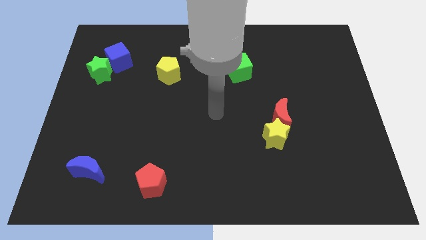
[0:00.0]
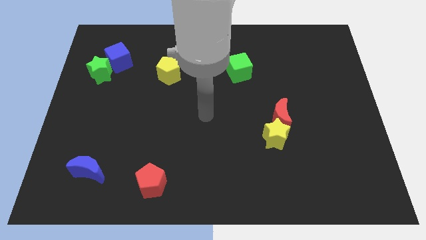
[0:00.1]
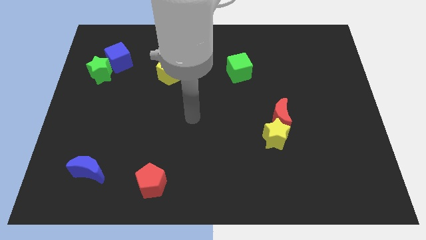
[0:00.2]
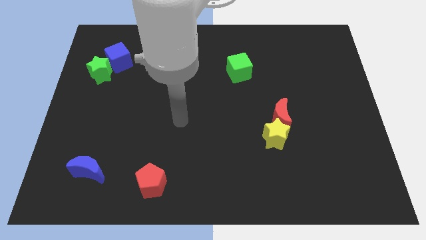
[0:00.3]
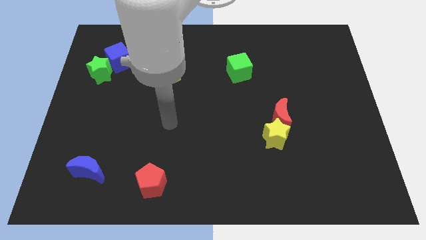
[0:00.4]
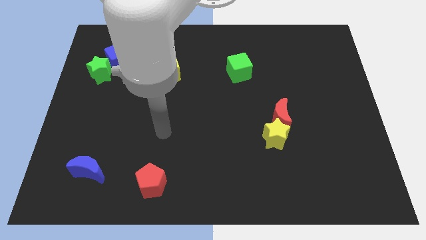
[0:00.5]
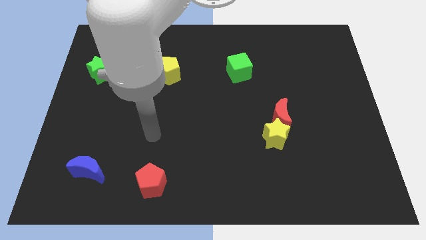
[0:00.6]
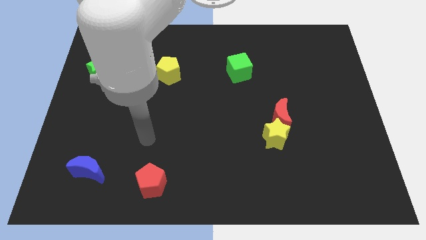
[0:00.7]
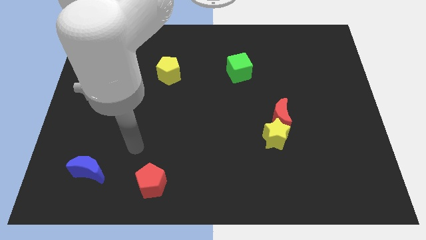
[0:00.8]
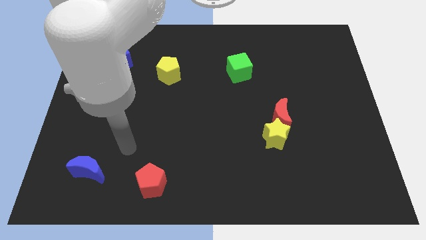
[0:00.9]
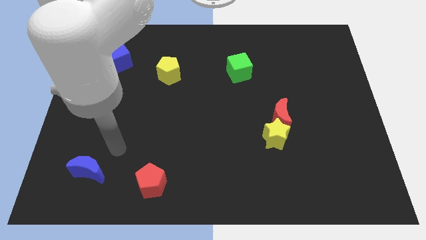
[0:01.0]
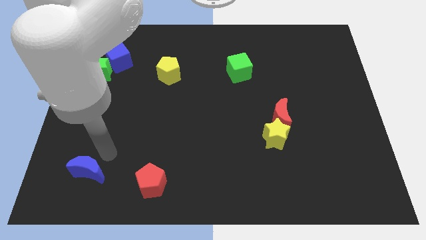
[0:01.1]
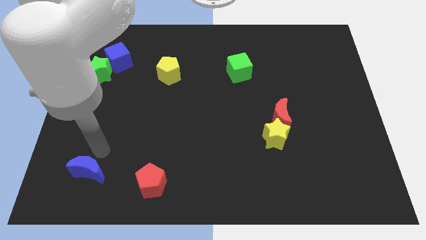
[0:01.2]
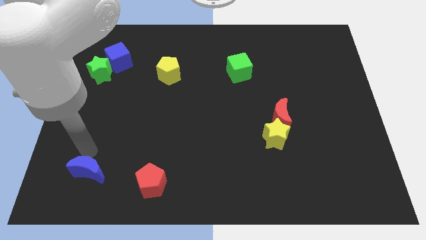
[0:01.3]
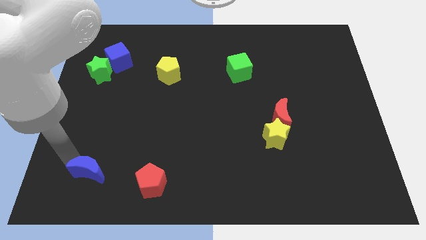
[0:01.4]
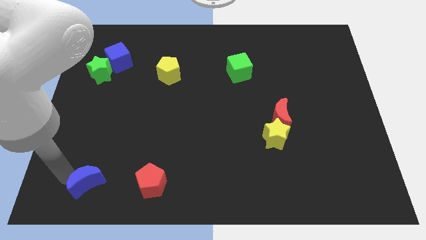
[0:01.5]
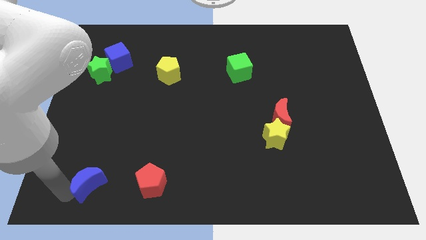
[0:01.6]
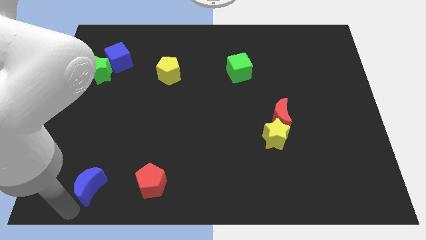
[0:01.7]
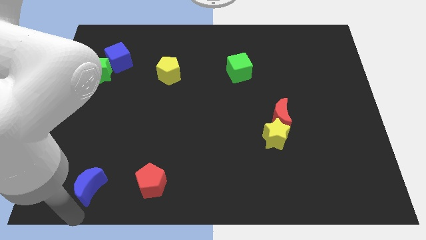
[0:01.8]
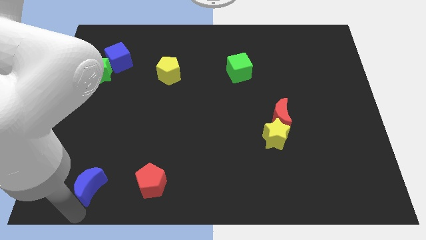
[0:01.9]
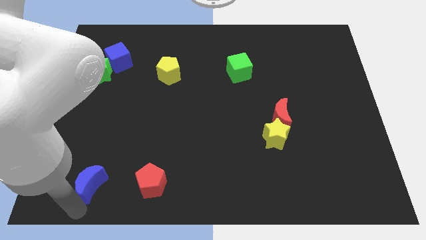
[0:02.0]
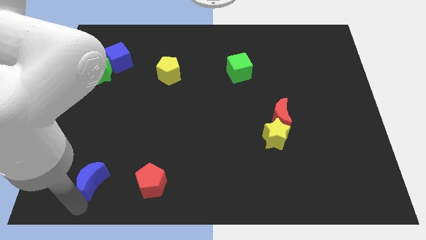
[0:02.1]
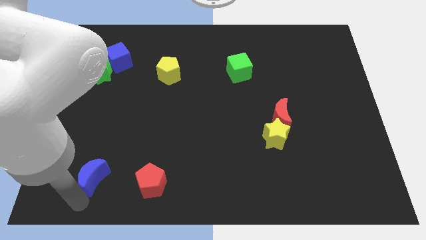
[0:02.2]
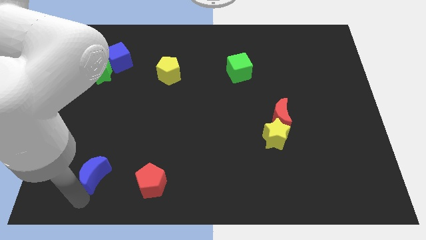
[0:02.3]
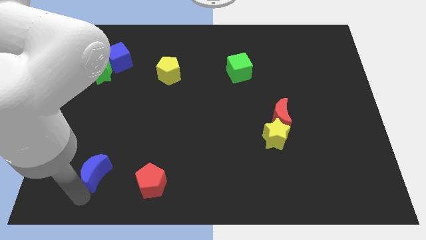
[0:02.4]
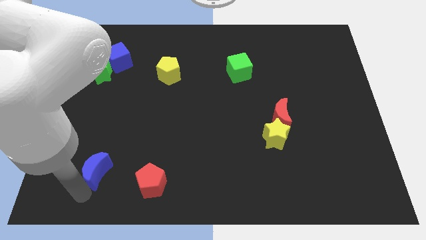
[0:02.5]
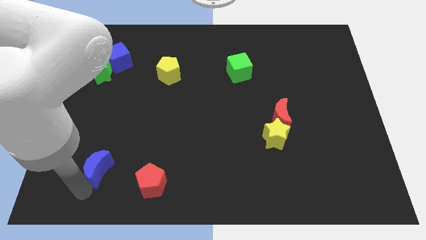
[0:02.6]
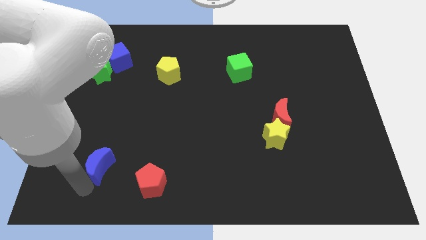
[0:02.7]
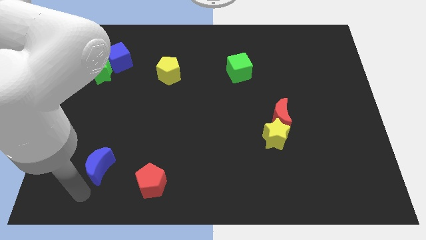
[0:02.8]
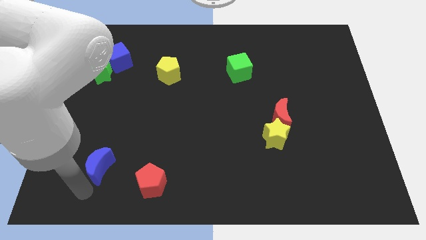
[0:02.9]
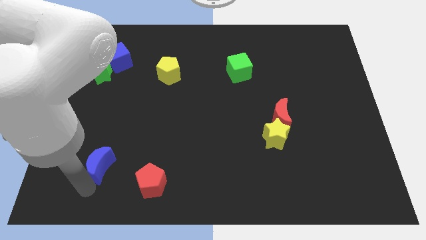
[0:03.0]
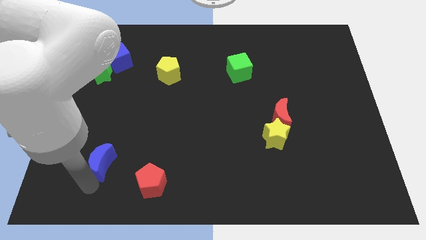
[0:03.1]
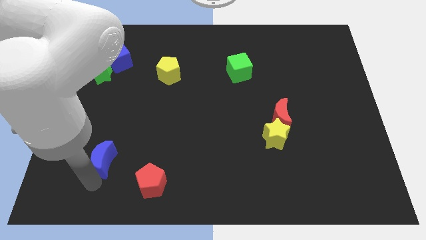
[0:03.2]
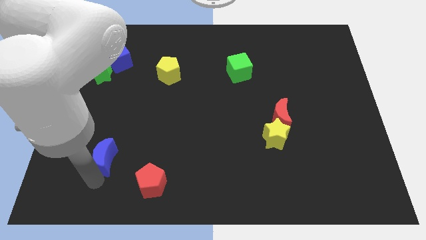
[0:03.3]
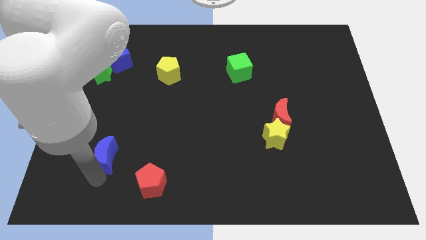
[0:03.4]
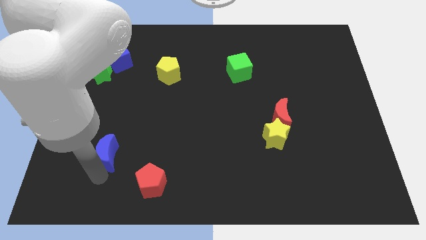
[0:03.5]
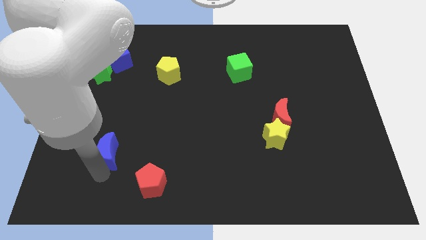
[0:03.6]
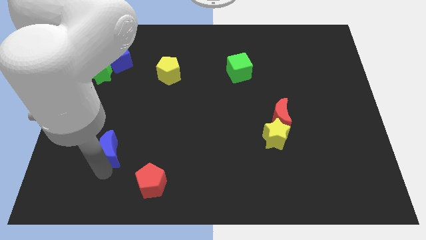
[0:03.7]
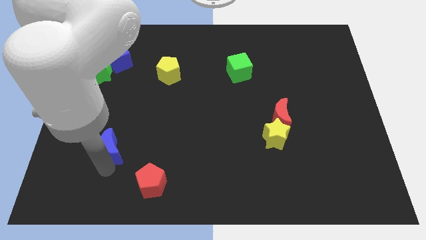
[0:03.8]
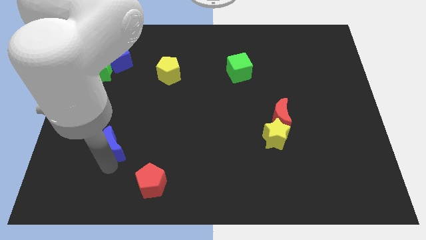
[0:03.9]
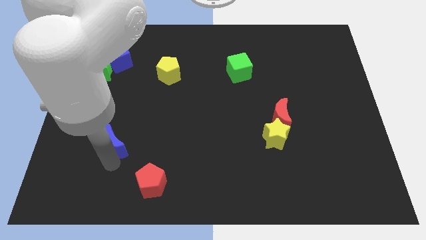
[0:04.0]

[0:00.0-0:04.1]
push the blue moon upwards and then to the right slightly

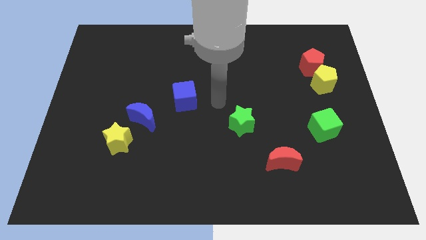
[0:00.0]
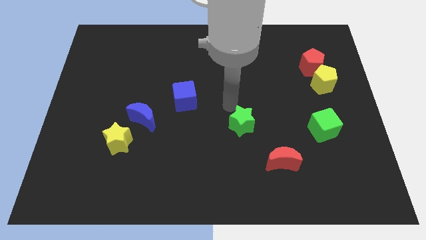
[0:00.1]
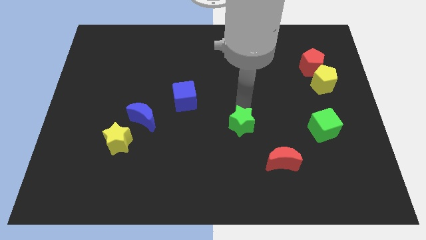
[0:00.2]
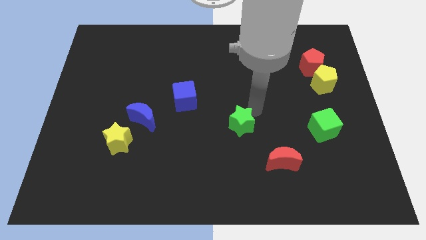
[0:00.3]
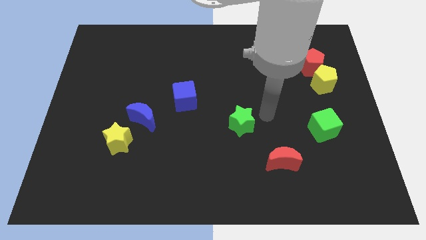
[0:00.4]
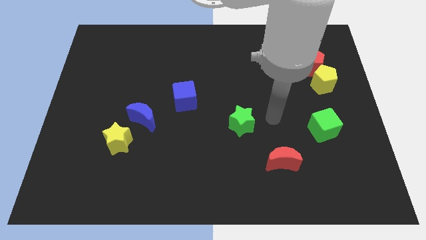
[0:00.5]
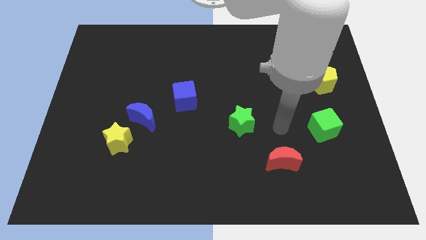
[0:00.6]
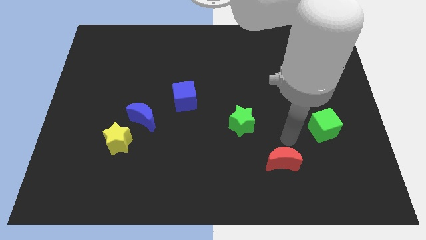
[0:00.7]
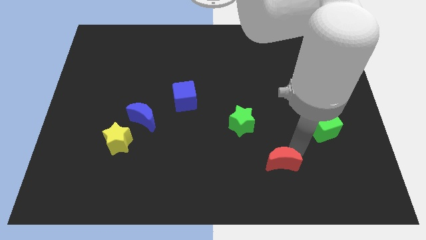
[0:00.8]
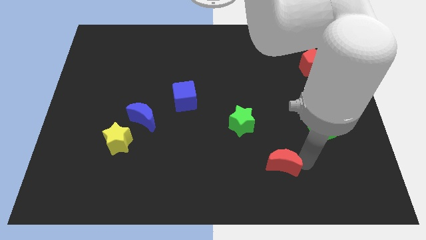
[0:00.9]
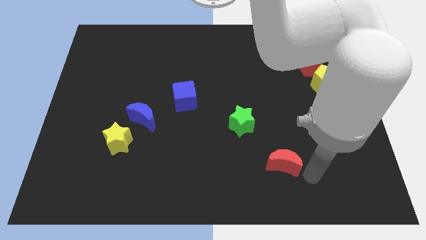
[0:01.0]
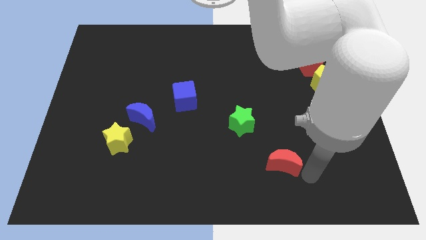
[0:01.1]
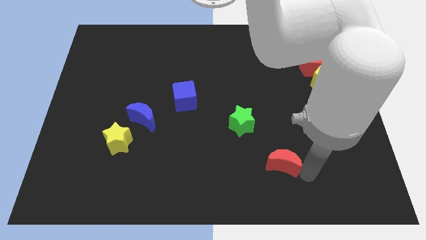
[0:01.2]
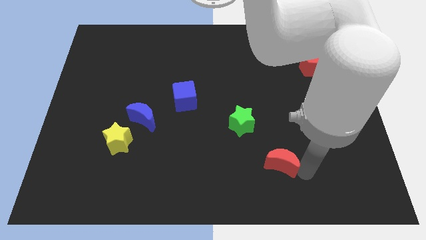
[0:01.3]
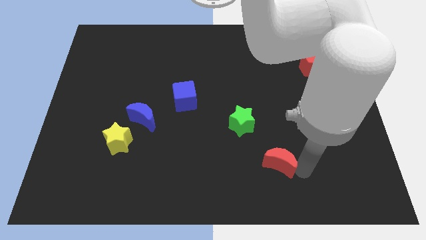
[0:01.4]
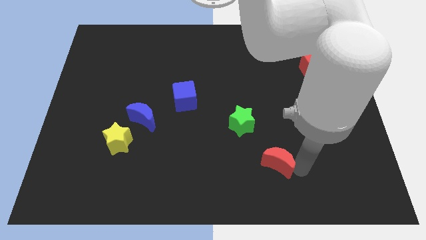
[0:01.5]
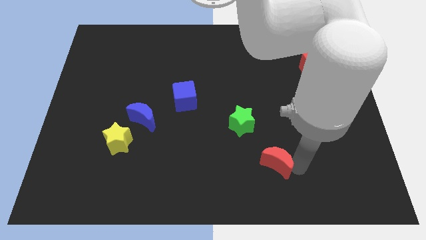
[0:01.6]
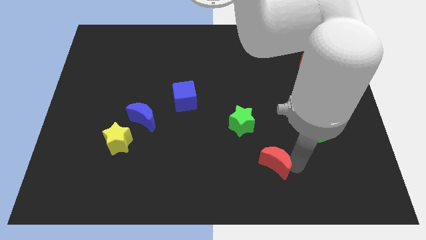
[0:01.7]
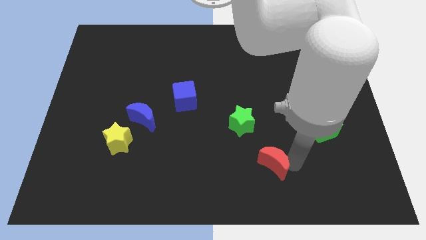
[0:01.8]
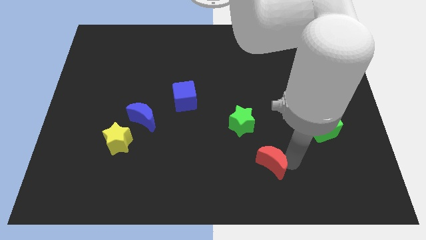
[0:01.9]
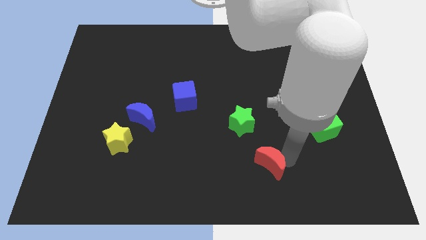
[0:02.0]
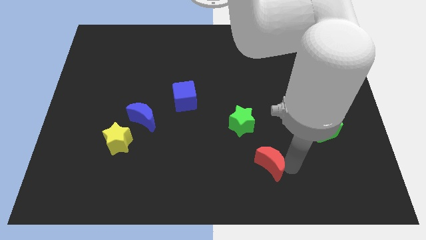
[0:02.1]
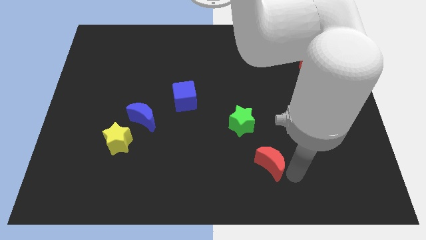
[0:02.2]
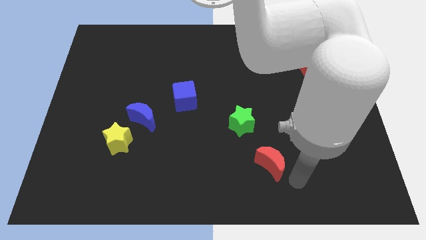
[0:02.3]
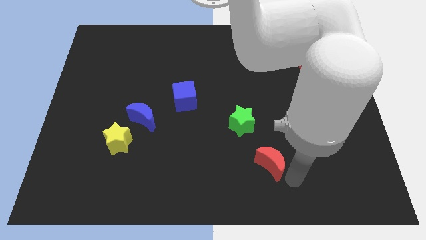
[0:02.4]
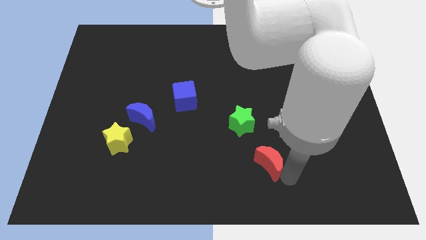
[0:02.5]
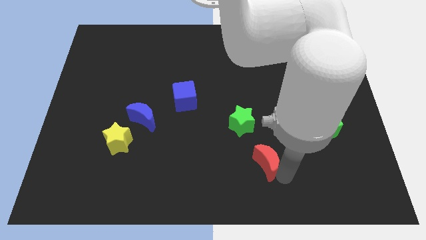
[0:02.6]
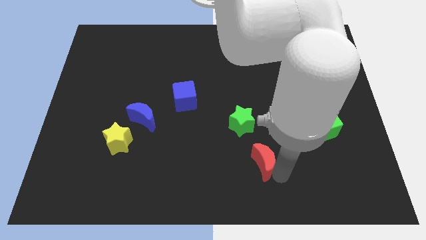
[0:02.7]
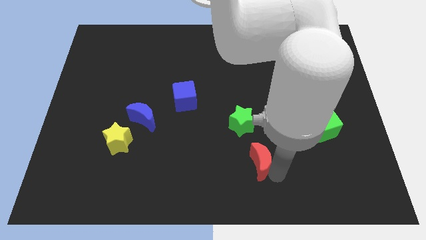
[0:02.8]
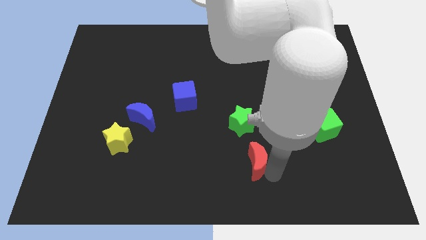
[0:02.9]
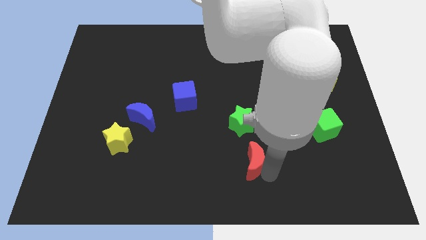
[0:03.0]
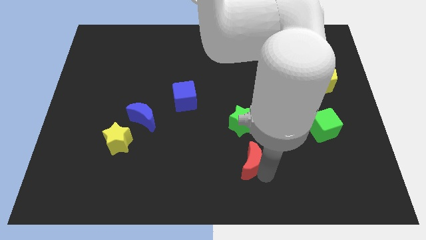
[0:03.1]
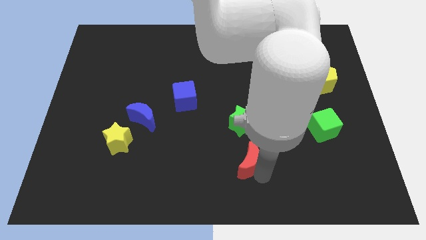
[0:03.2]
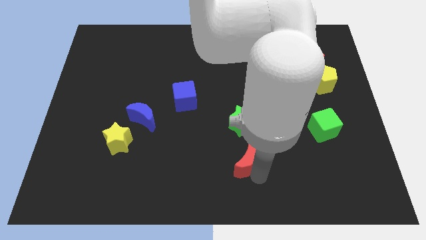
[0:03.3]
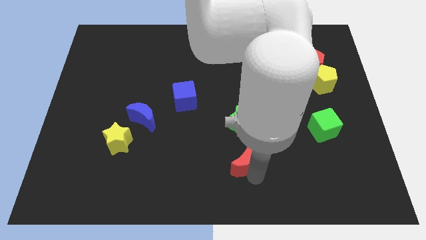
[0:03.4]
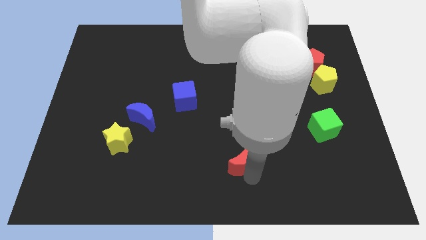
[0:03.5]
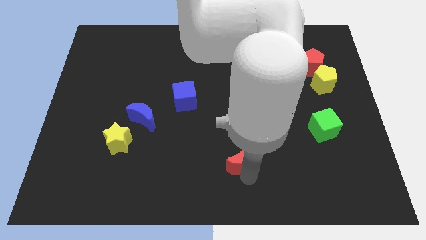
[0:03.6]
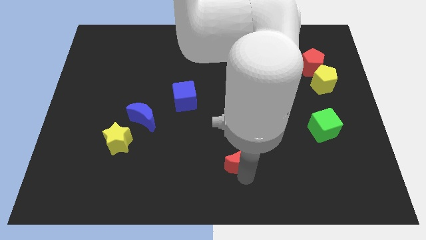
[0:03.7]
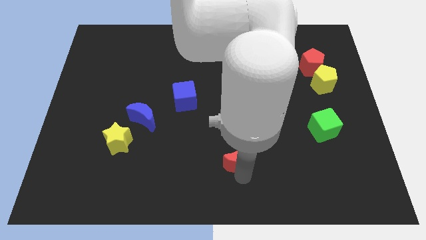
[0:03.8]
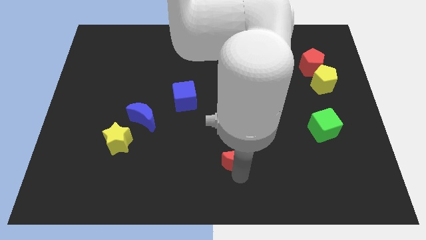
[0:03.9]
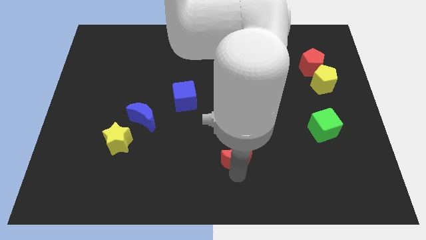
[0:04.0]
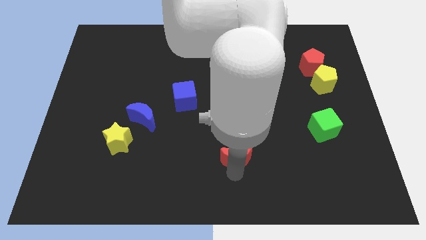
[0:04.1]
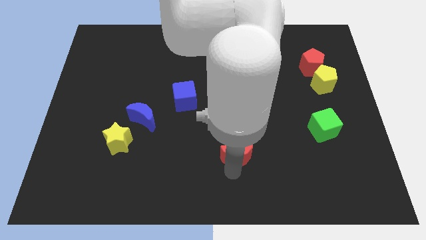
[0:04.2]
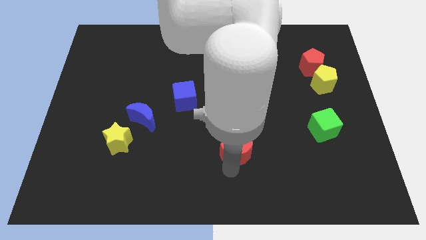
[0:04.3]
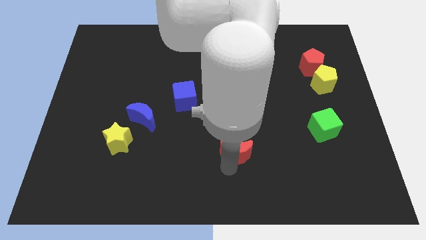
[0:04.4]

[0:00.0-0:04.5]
slightly push the red moon diagonally up and to the left
